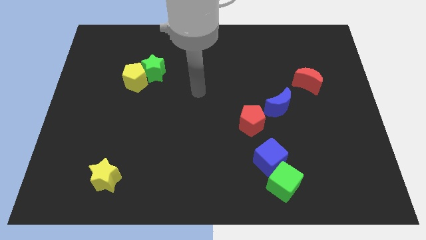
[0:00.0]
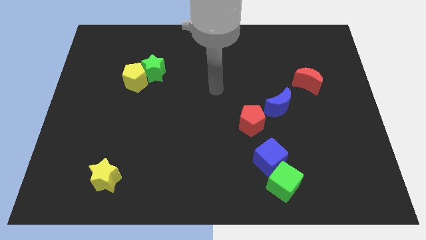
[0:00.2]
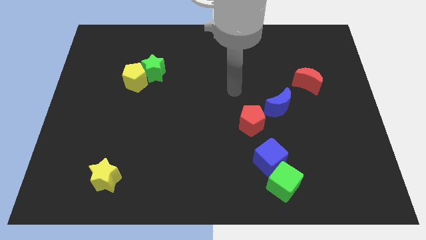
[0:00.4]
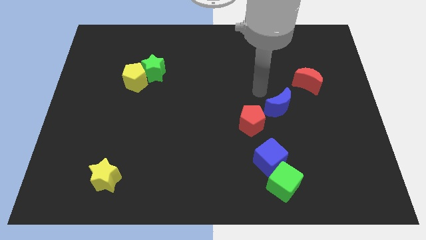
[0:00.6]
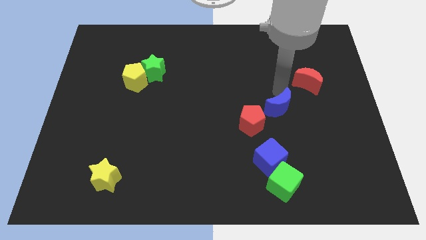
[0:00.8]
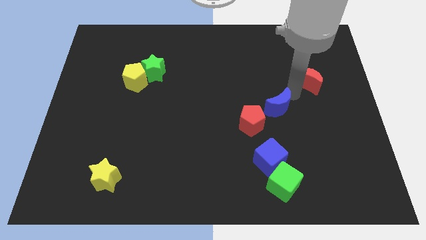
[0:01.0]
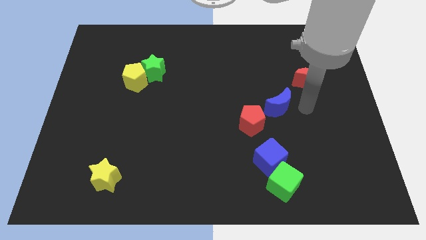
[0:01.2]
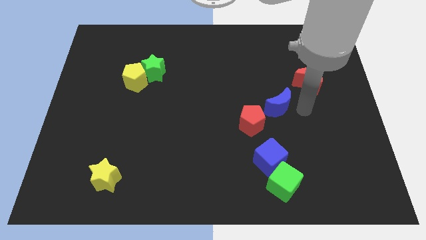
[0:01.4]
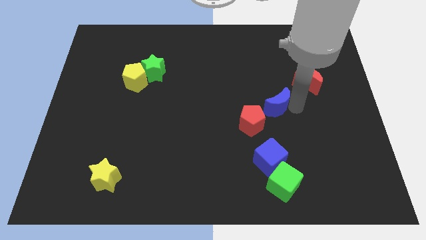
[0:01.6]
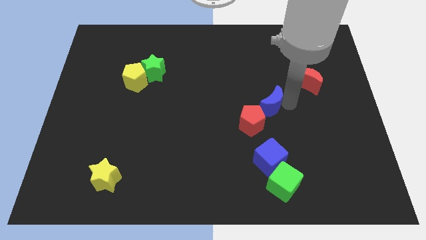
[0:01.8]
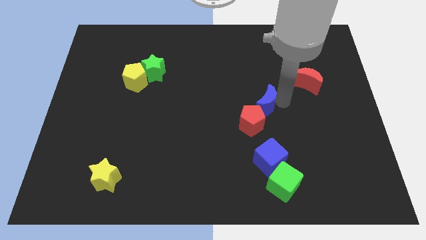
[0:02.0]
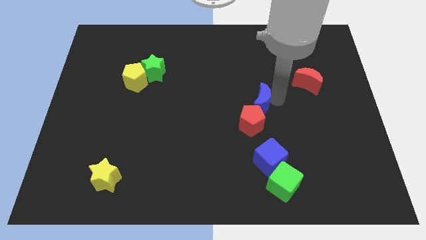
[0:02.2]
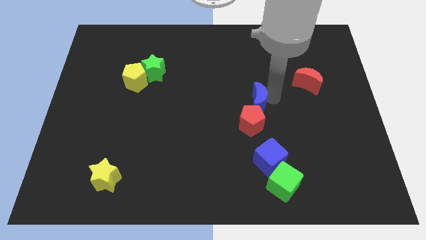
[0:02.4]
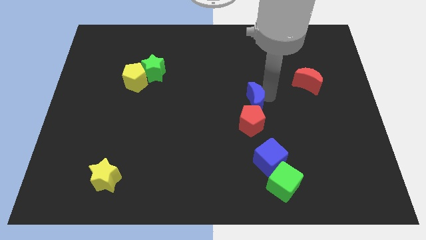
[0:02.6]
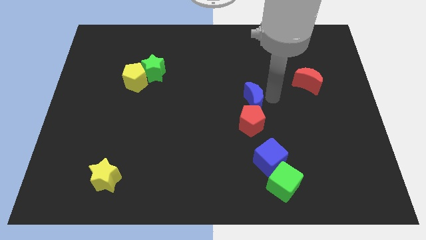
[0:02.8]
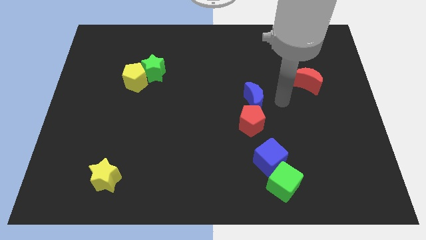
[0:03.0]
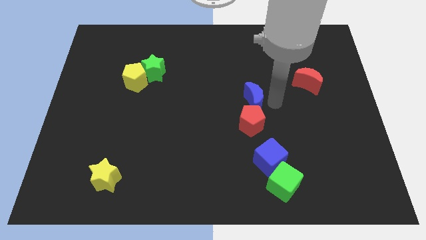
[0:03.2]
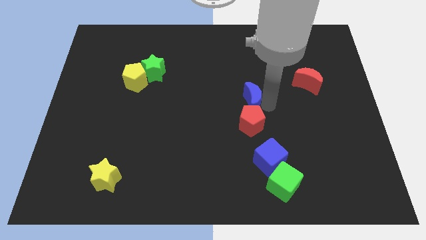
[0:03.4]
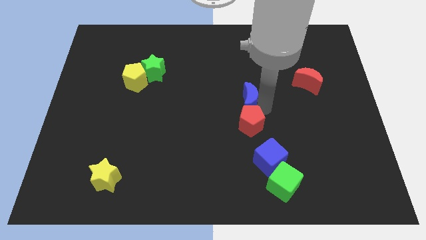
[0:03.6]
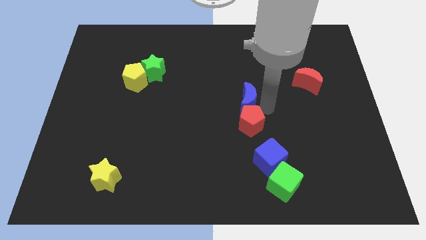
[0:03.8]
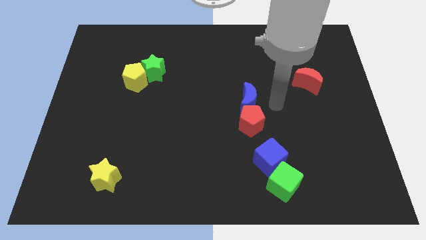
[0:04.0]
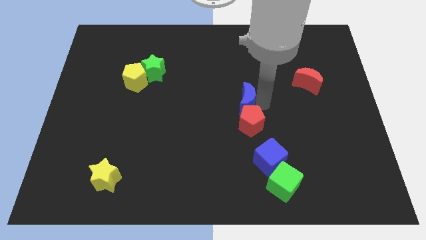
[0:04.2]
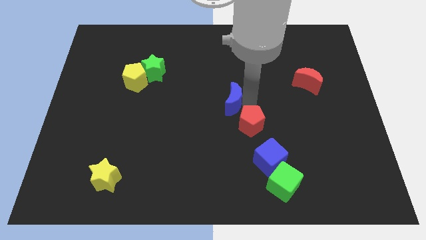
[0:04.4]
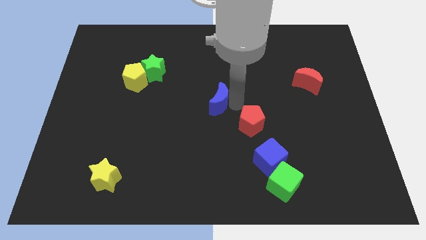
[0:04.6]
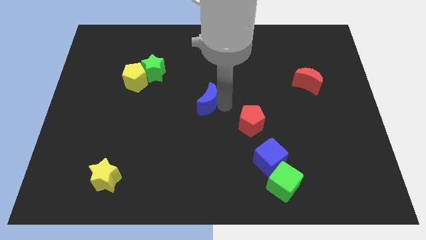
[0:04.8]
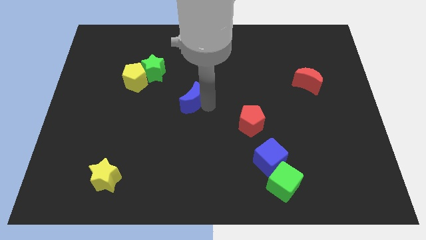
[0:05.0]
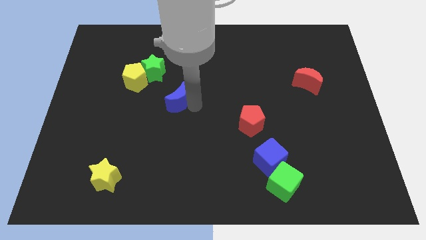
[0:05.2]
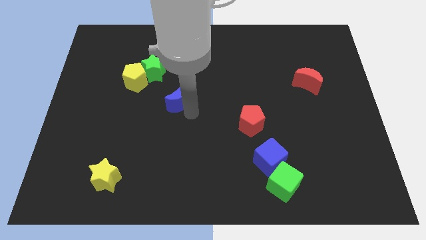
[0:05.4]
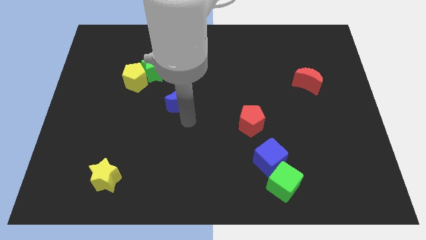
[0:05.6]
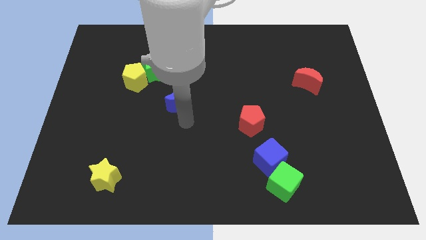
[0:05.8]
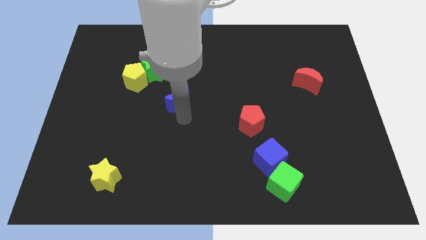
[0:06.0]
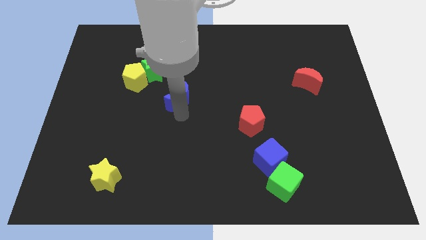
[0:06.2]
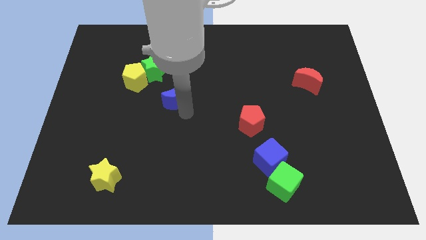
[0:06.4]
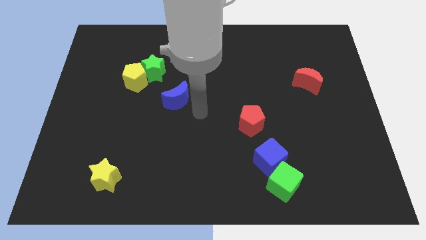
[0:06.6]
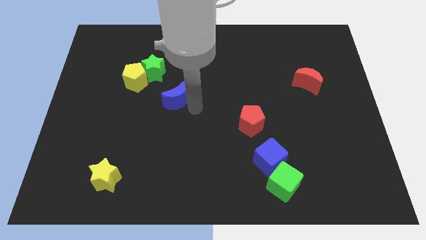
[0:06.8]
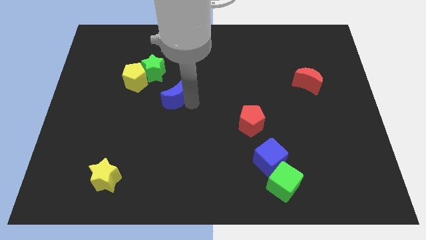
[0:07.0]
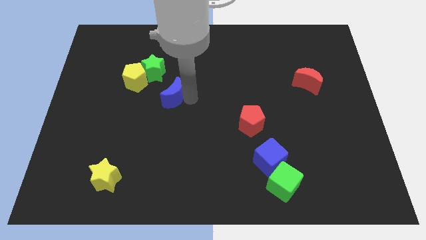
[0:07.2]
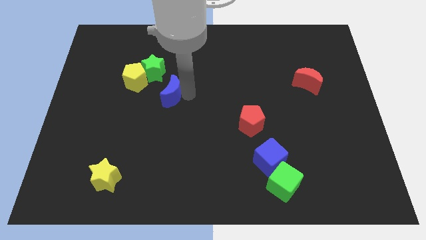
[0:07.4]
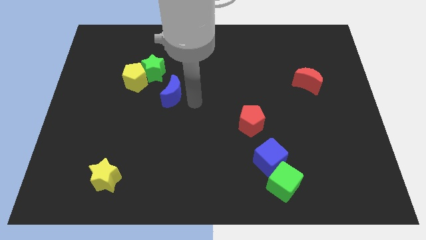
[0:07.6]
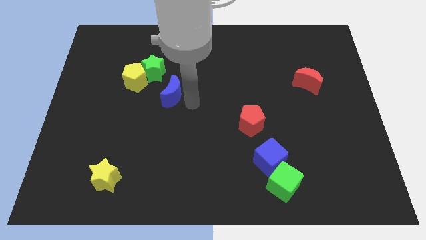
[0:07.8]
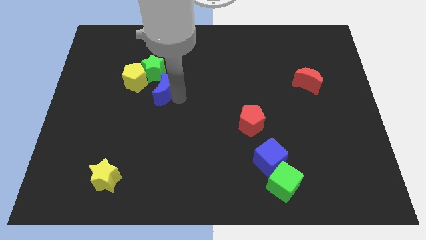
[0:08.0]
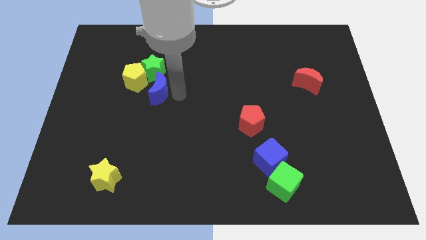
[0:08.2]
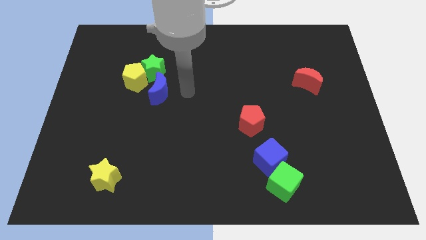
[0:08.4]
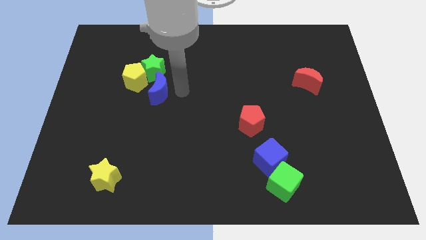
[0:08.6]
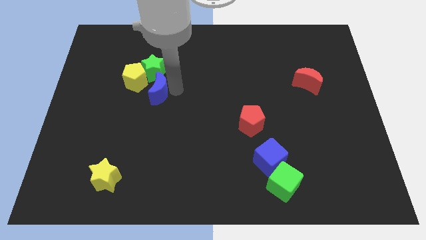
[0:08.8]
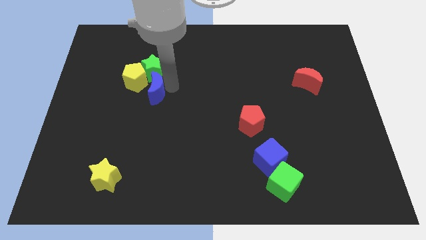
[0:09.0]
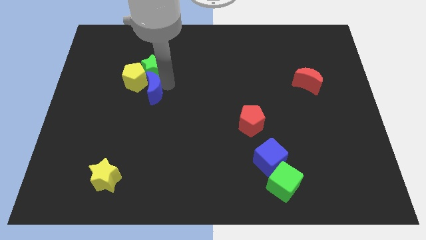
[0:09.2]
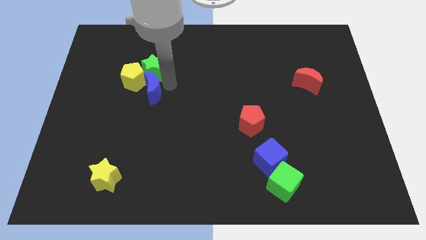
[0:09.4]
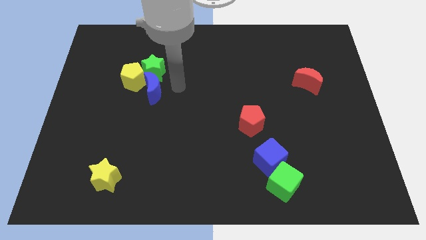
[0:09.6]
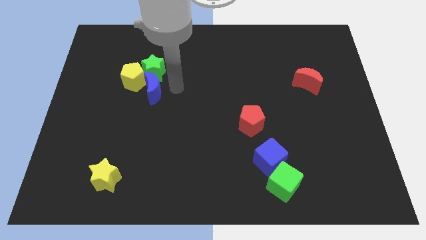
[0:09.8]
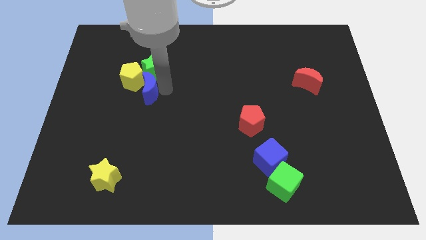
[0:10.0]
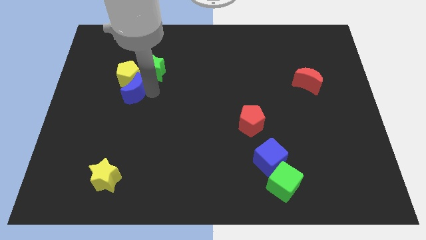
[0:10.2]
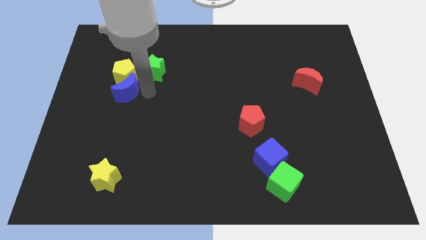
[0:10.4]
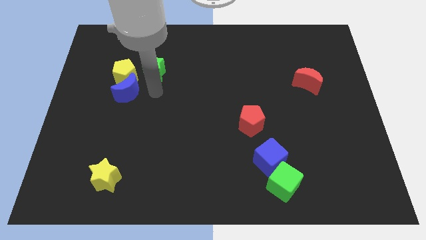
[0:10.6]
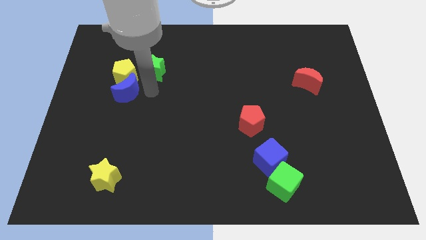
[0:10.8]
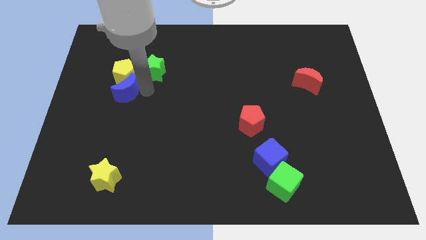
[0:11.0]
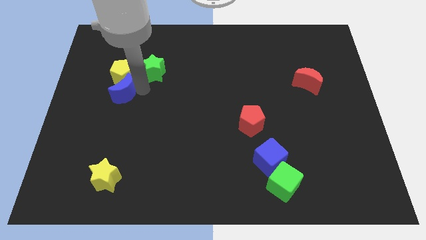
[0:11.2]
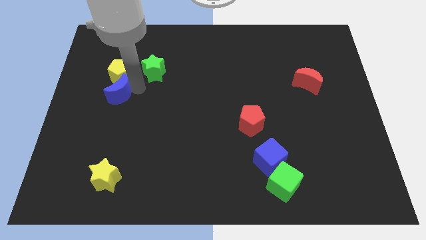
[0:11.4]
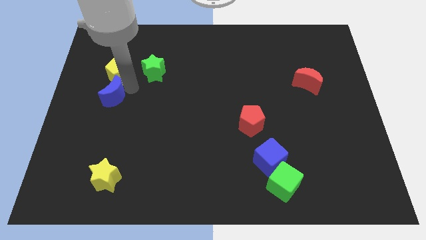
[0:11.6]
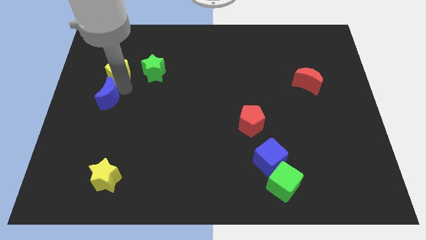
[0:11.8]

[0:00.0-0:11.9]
put the blue moon to the center left
